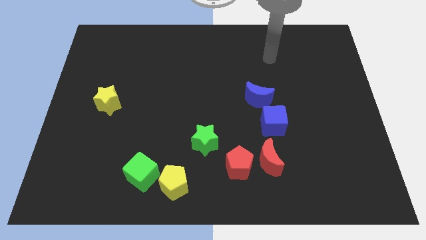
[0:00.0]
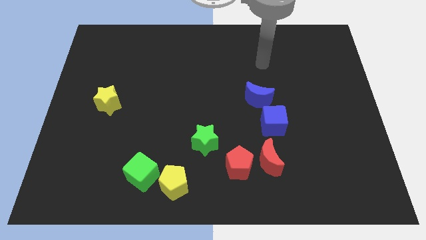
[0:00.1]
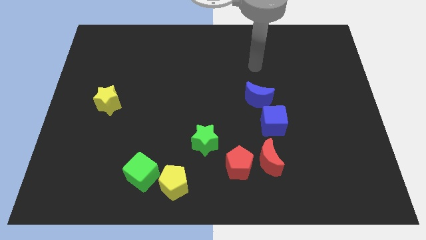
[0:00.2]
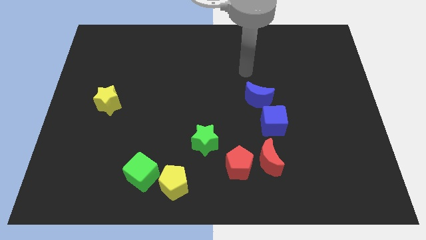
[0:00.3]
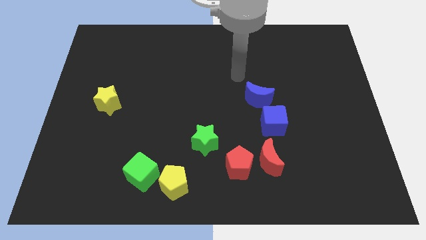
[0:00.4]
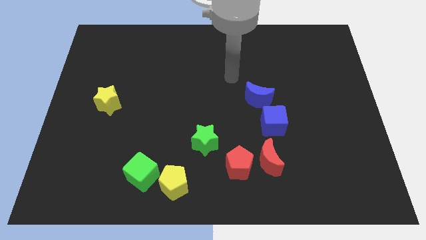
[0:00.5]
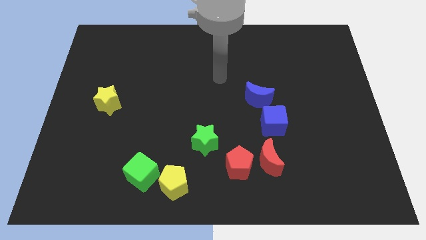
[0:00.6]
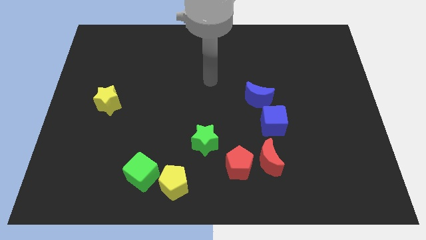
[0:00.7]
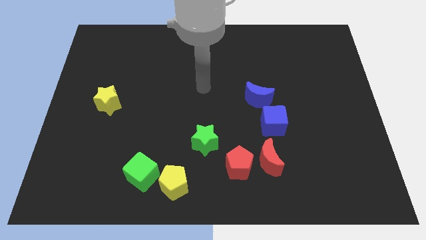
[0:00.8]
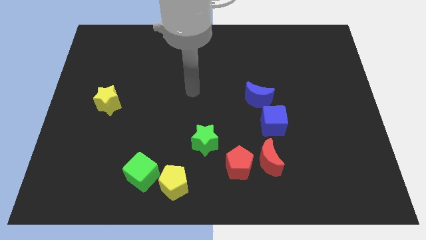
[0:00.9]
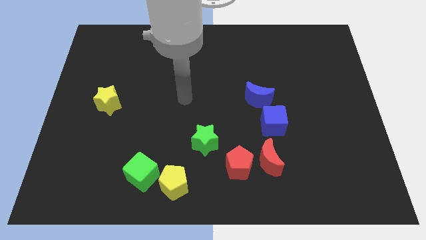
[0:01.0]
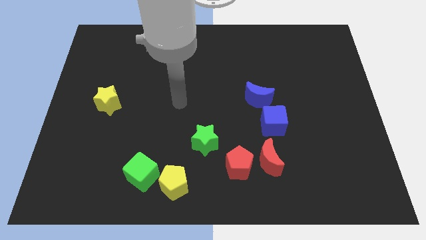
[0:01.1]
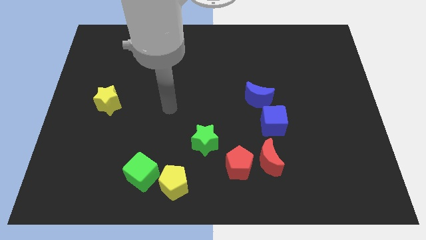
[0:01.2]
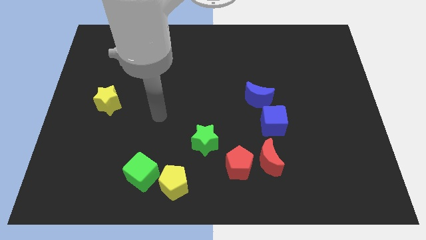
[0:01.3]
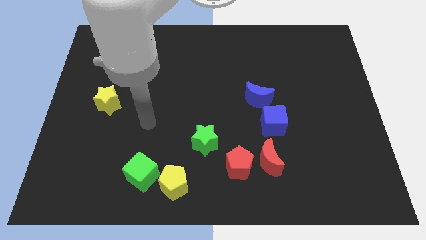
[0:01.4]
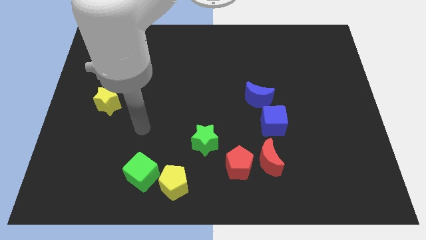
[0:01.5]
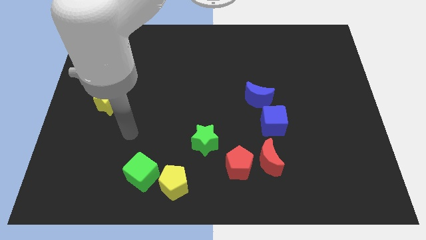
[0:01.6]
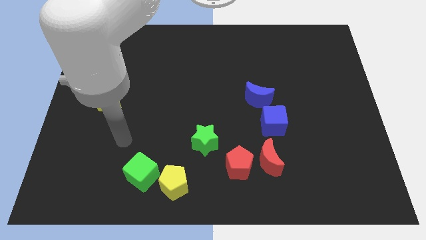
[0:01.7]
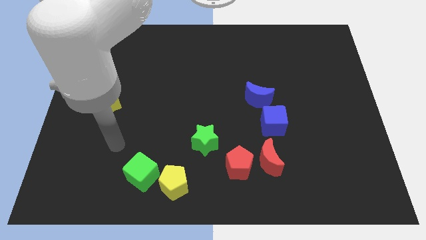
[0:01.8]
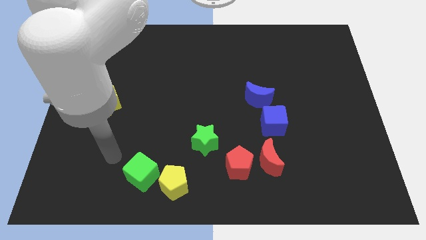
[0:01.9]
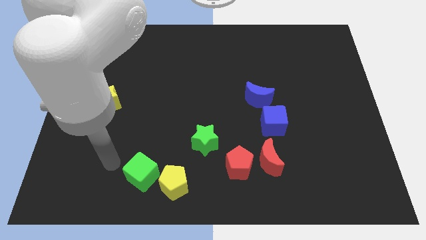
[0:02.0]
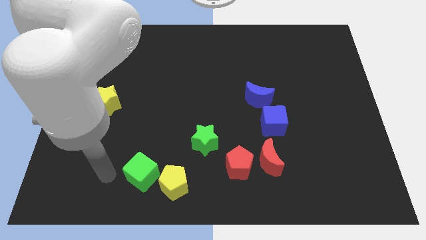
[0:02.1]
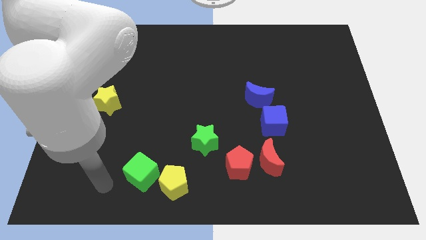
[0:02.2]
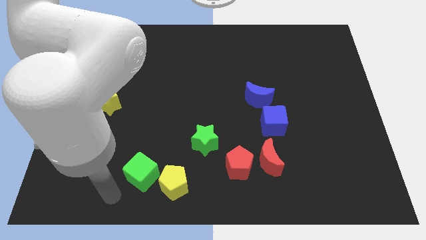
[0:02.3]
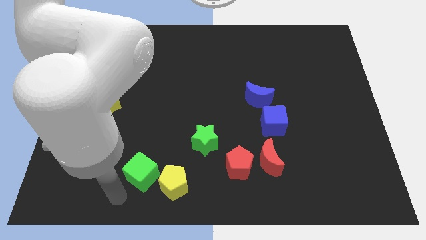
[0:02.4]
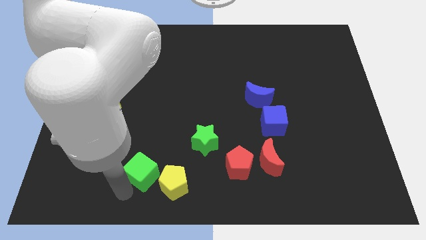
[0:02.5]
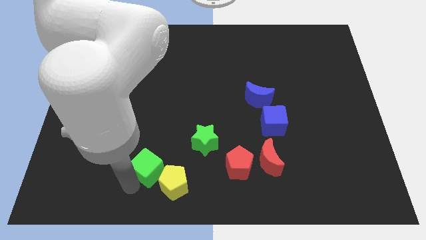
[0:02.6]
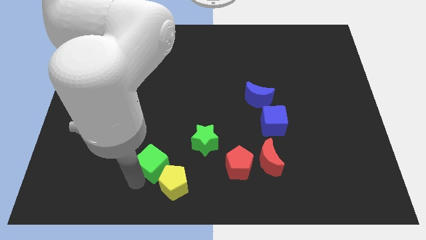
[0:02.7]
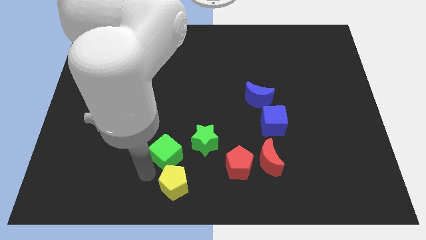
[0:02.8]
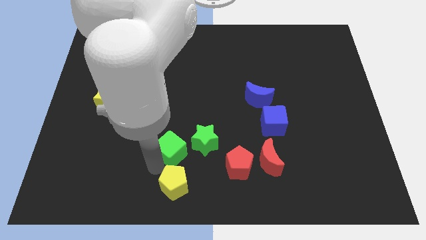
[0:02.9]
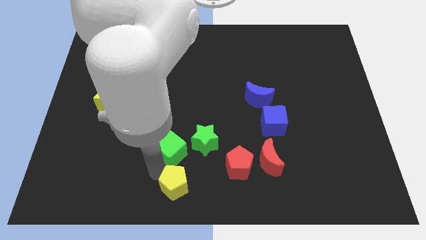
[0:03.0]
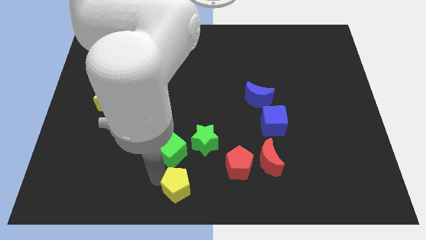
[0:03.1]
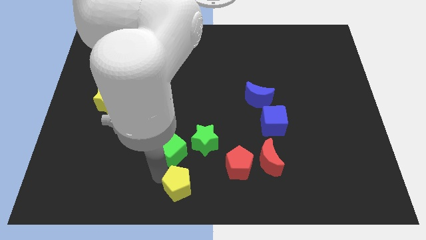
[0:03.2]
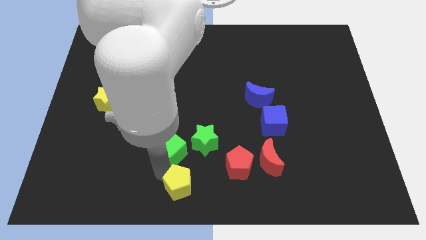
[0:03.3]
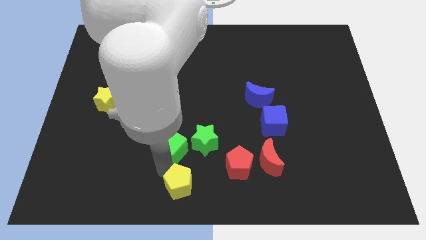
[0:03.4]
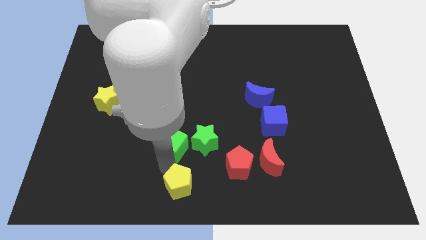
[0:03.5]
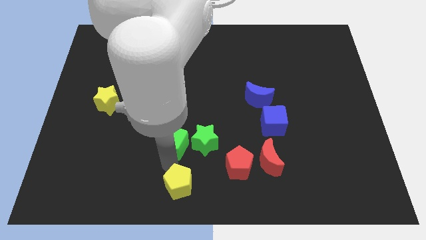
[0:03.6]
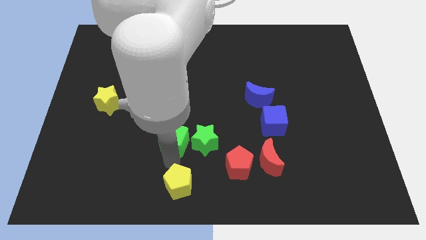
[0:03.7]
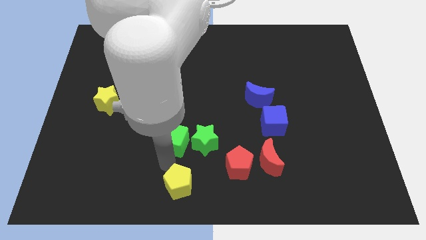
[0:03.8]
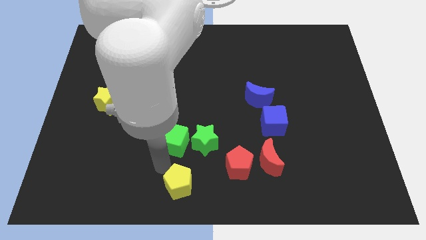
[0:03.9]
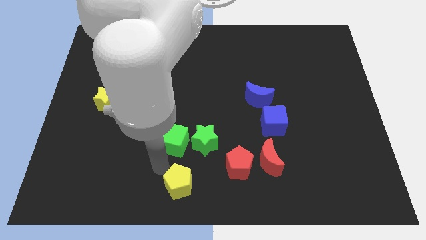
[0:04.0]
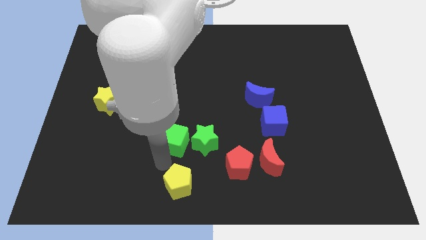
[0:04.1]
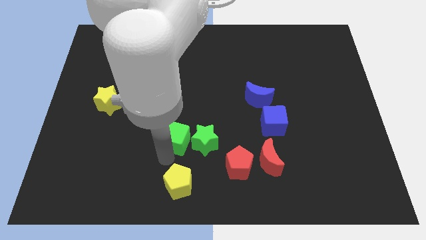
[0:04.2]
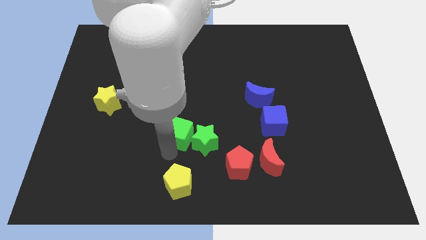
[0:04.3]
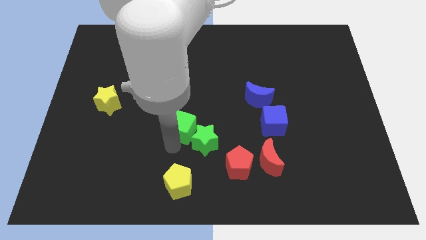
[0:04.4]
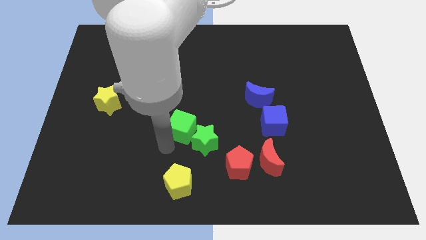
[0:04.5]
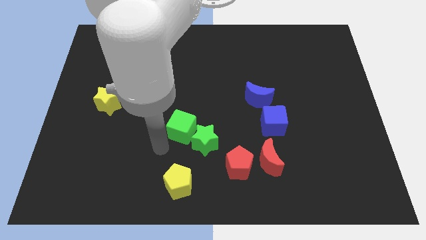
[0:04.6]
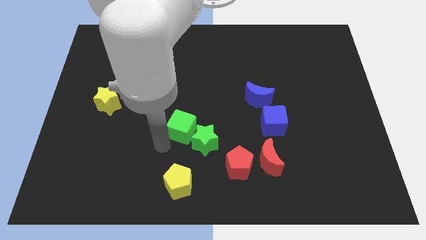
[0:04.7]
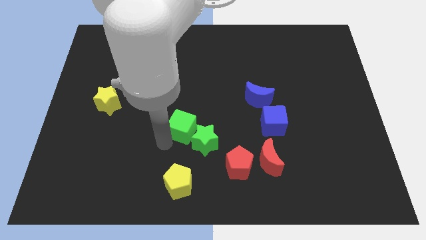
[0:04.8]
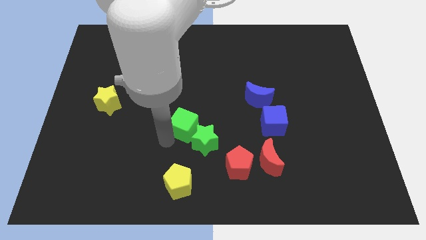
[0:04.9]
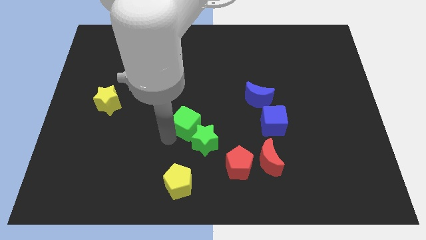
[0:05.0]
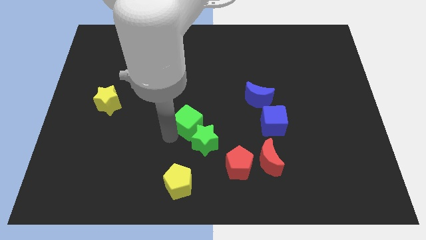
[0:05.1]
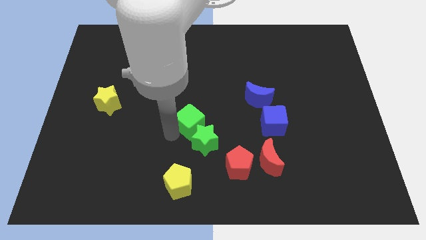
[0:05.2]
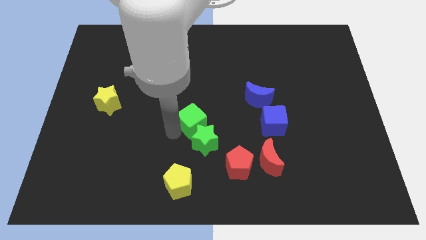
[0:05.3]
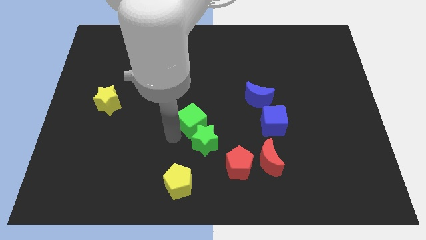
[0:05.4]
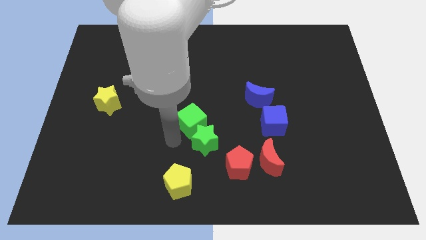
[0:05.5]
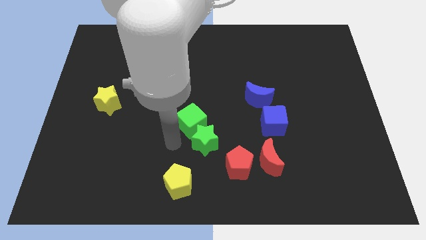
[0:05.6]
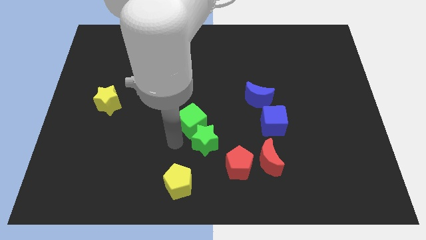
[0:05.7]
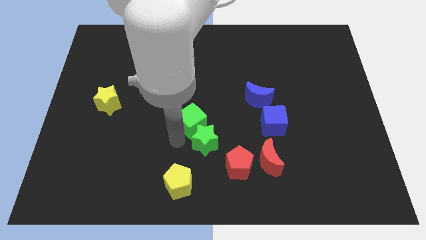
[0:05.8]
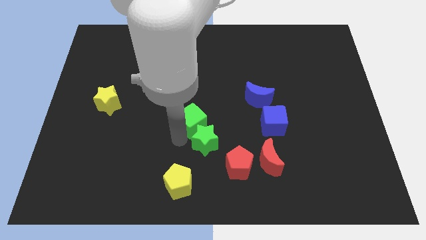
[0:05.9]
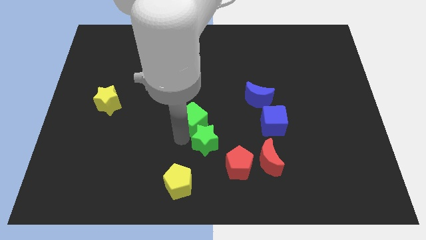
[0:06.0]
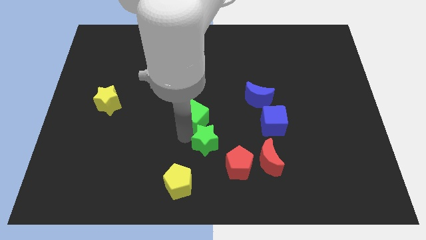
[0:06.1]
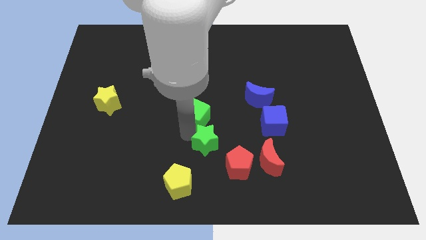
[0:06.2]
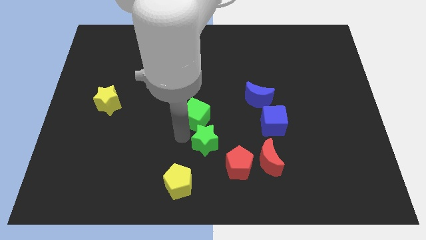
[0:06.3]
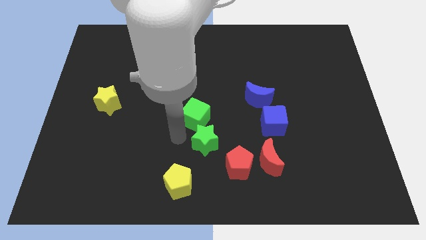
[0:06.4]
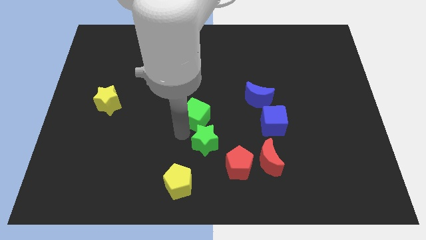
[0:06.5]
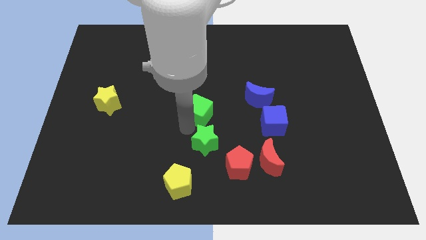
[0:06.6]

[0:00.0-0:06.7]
slide the green cube to the left side of the blue moon
